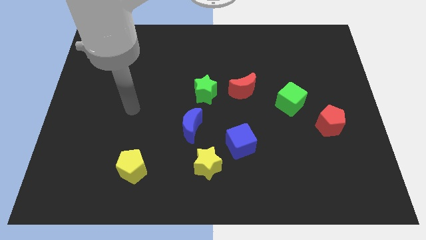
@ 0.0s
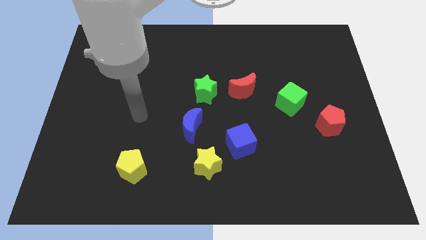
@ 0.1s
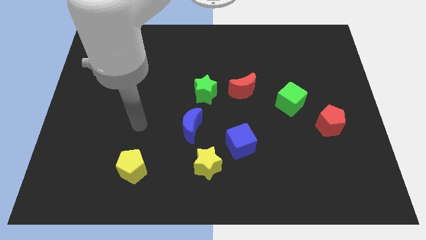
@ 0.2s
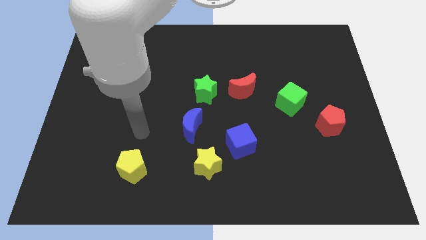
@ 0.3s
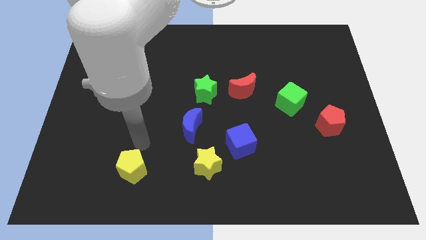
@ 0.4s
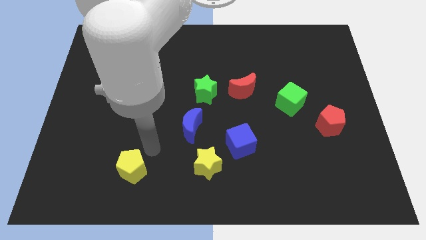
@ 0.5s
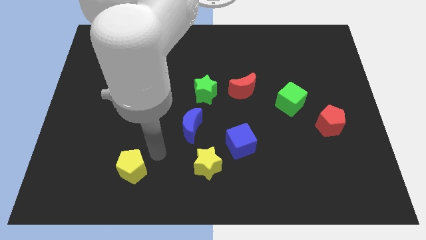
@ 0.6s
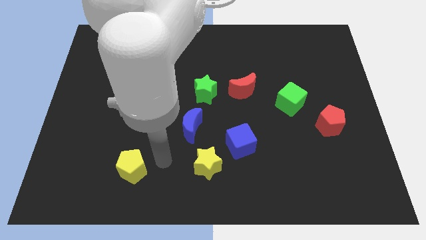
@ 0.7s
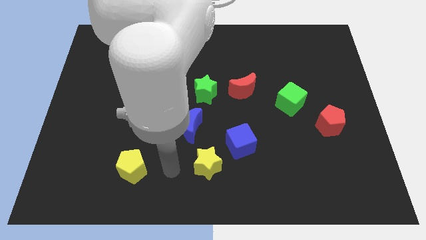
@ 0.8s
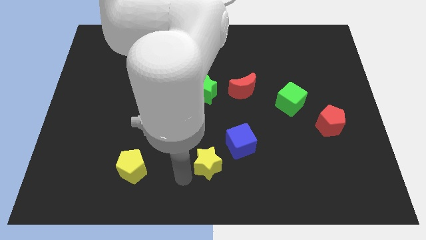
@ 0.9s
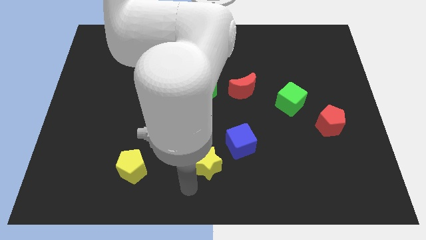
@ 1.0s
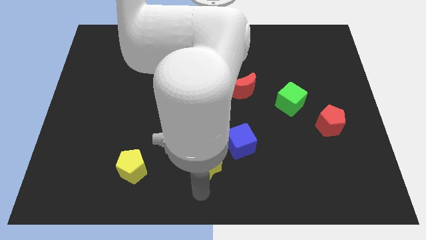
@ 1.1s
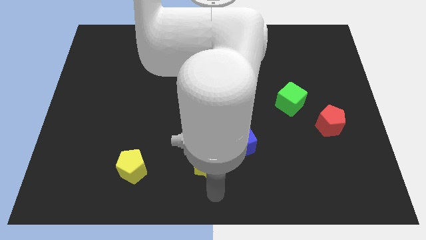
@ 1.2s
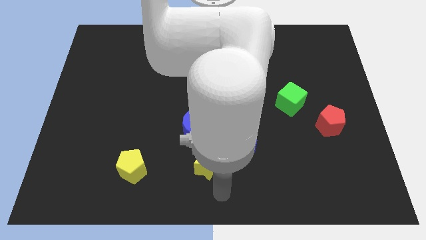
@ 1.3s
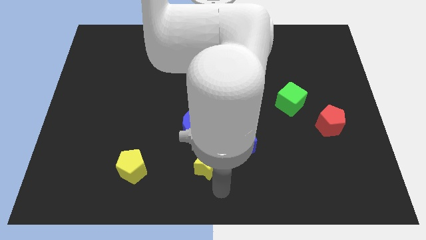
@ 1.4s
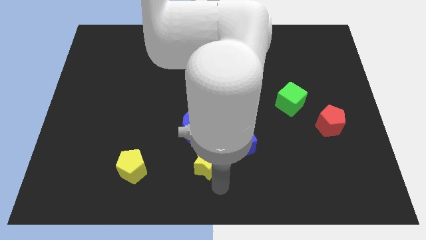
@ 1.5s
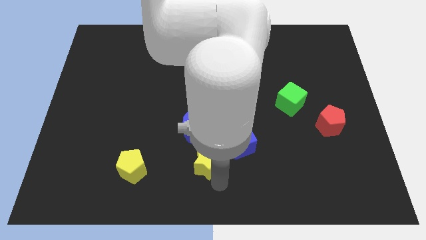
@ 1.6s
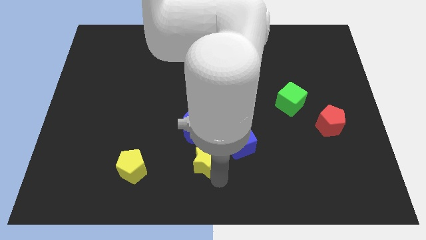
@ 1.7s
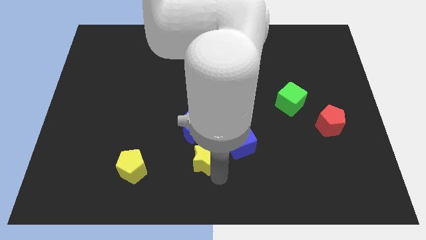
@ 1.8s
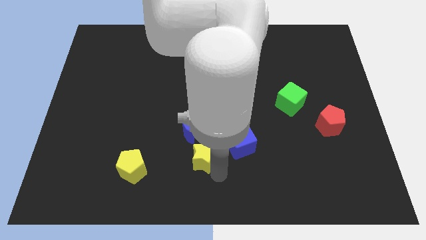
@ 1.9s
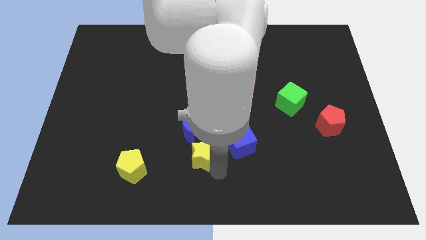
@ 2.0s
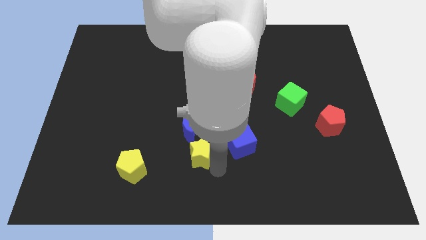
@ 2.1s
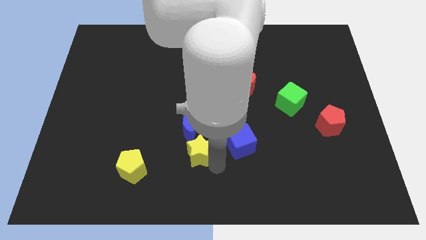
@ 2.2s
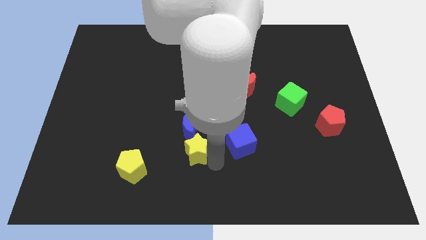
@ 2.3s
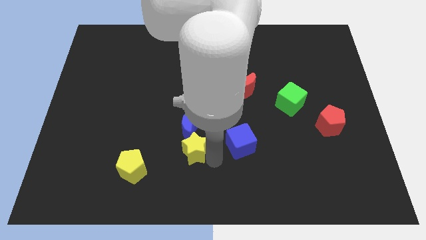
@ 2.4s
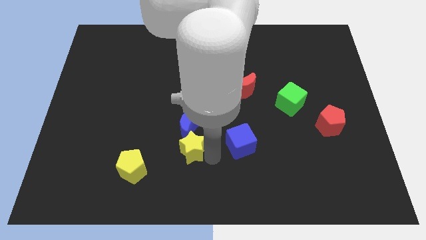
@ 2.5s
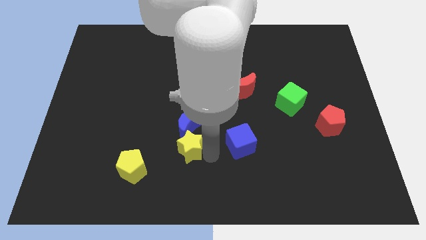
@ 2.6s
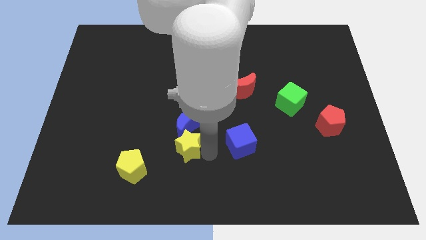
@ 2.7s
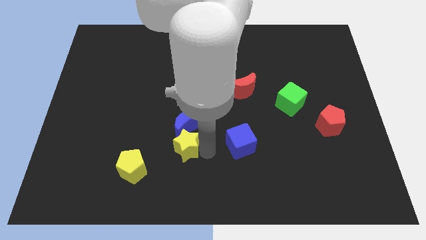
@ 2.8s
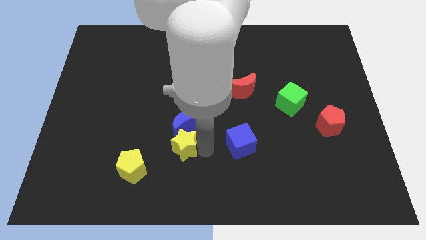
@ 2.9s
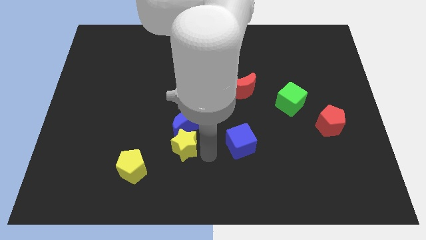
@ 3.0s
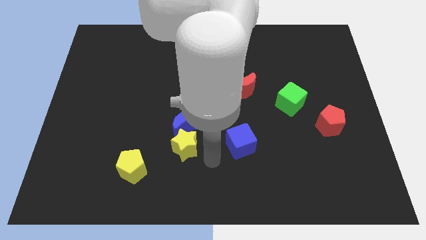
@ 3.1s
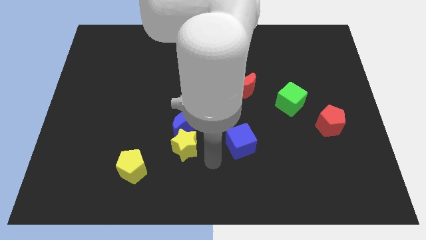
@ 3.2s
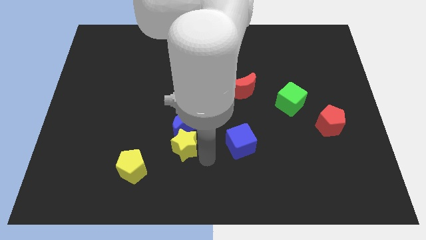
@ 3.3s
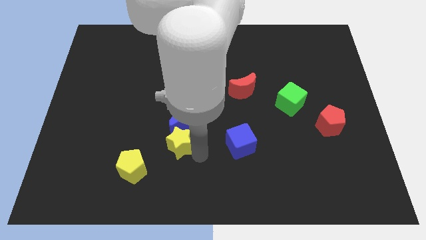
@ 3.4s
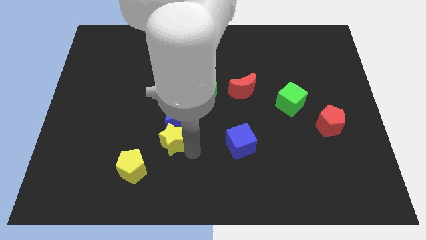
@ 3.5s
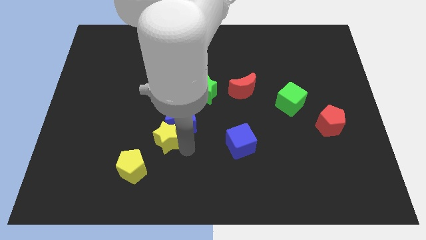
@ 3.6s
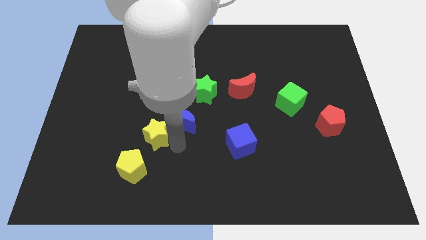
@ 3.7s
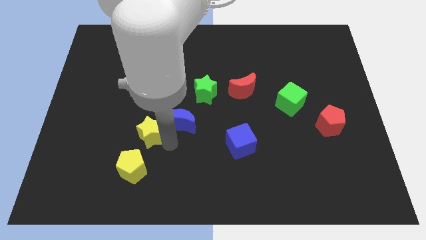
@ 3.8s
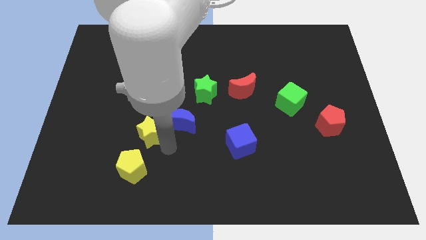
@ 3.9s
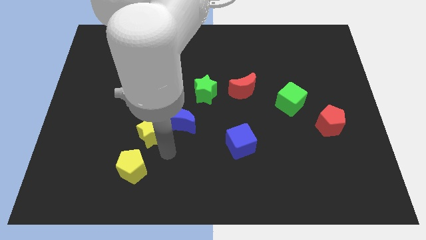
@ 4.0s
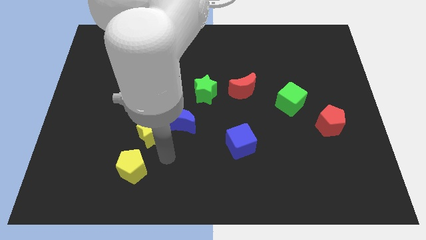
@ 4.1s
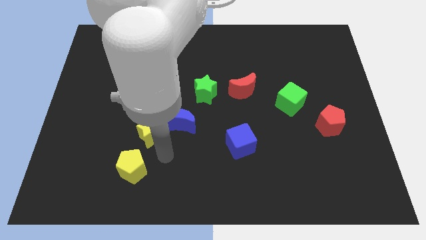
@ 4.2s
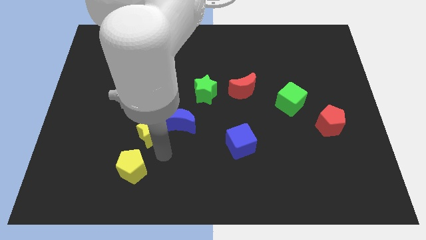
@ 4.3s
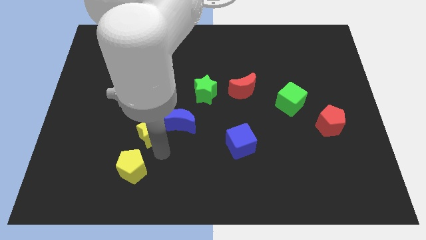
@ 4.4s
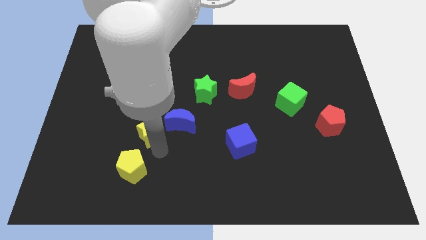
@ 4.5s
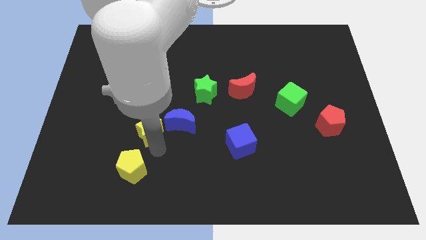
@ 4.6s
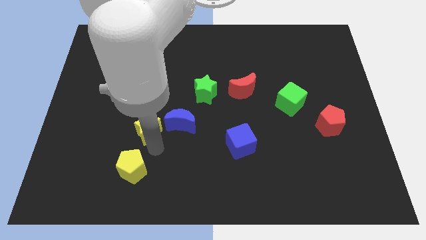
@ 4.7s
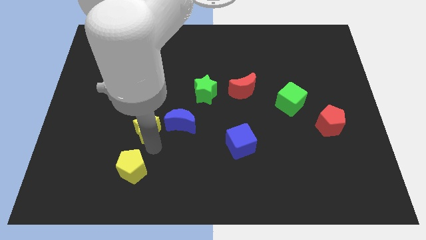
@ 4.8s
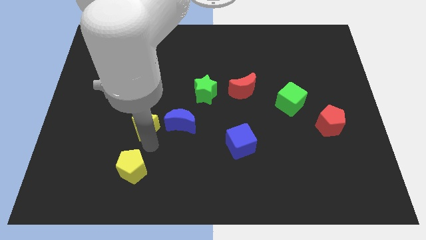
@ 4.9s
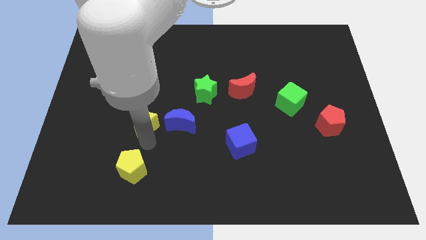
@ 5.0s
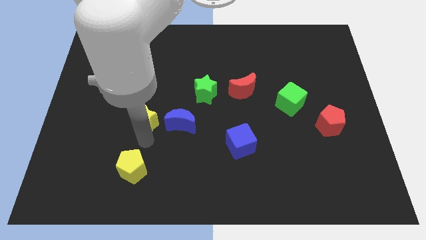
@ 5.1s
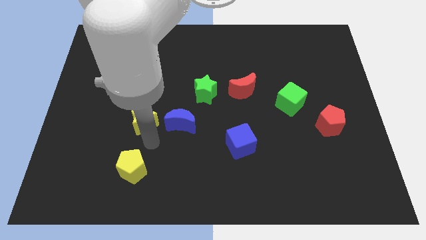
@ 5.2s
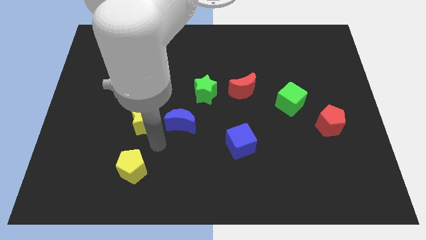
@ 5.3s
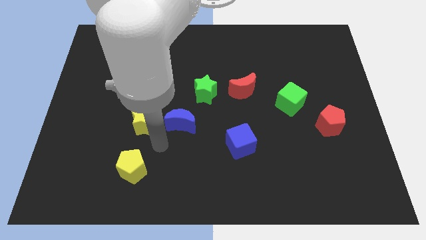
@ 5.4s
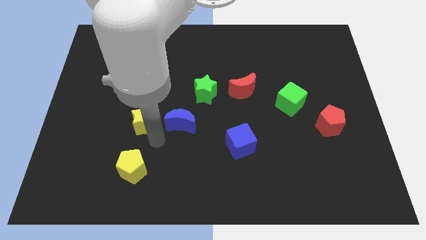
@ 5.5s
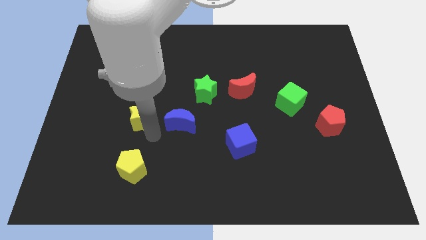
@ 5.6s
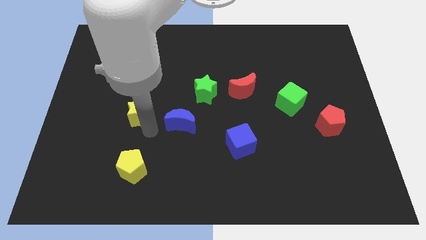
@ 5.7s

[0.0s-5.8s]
move the yellow star upwards and left

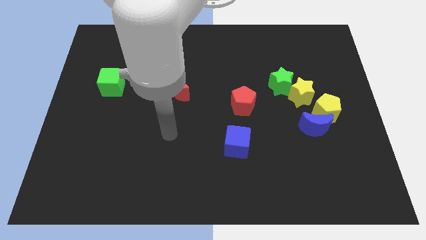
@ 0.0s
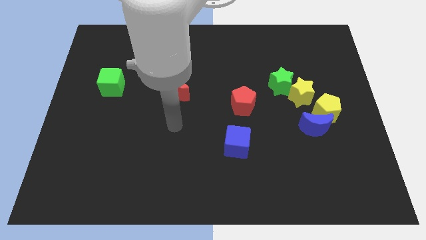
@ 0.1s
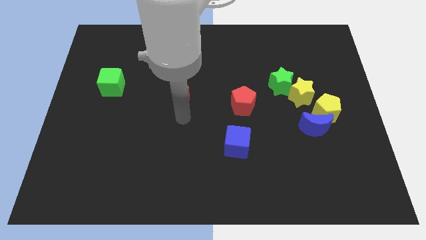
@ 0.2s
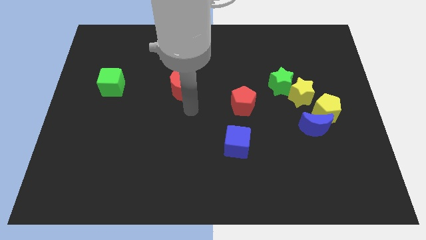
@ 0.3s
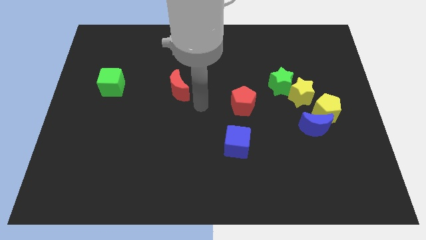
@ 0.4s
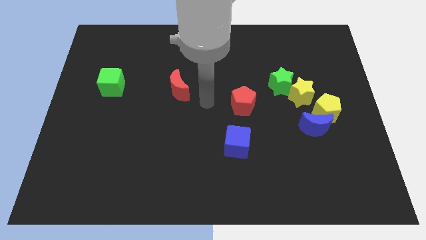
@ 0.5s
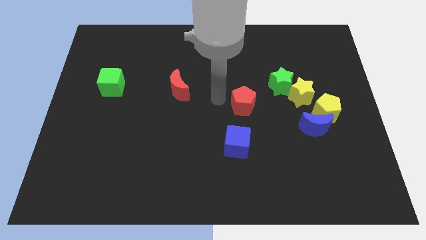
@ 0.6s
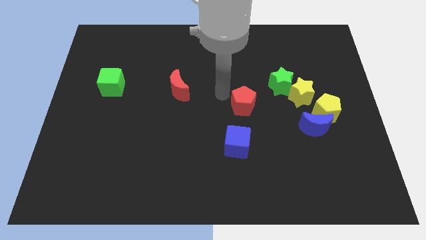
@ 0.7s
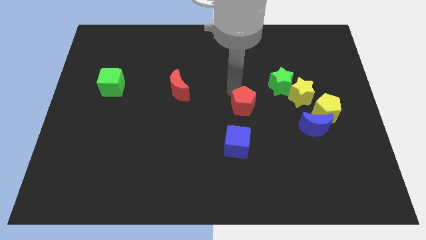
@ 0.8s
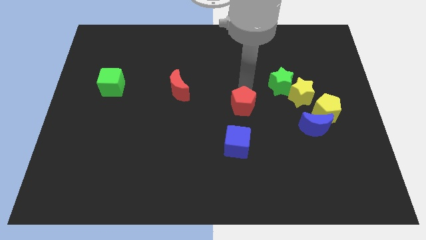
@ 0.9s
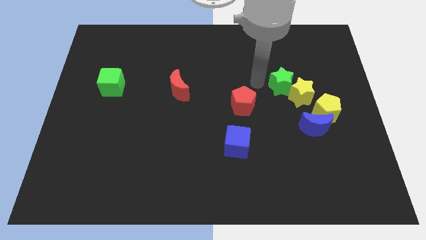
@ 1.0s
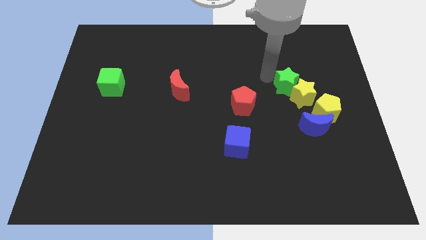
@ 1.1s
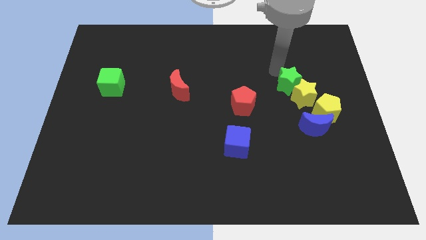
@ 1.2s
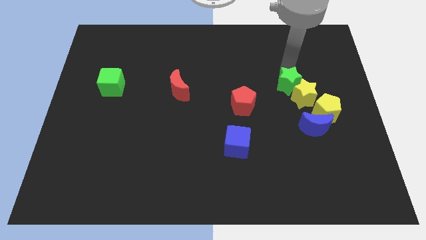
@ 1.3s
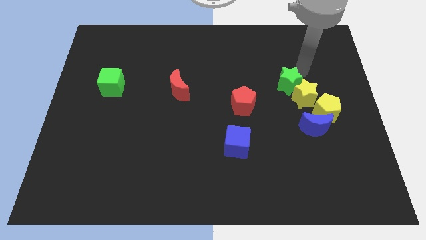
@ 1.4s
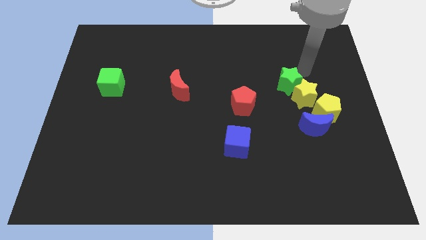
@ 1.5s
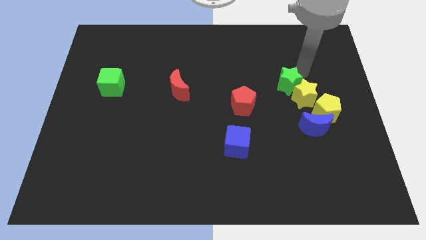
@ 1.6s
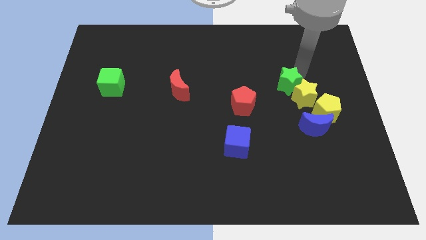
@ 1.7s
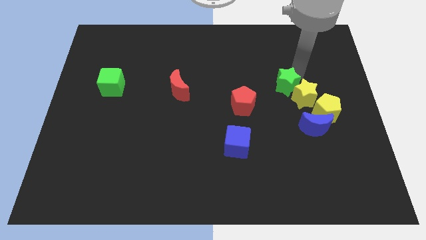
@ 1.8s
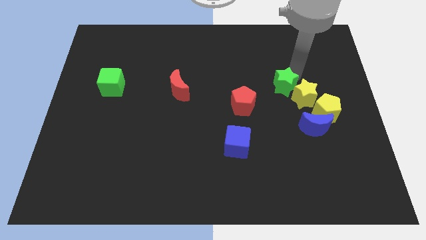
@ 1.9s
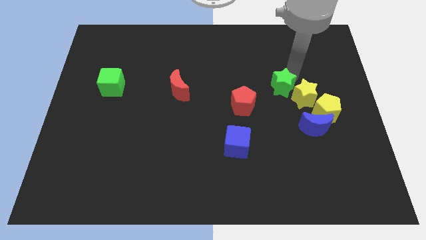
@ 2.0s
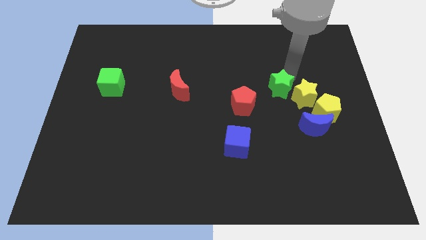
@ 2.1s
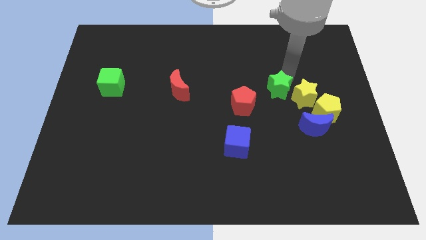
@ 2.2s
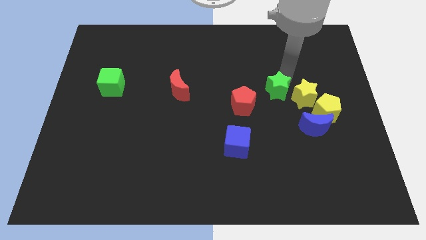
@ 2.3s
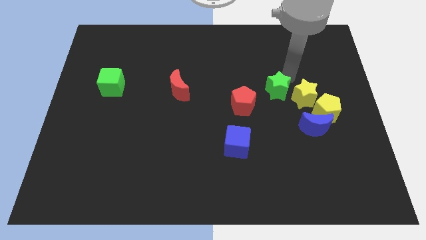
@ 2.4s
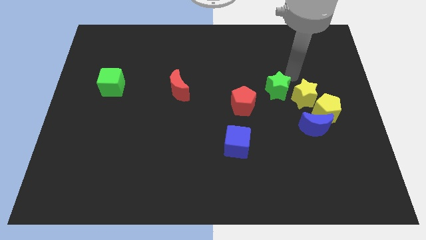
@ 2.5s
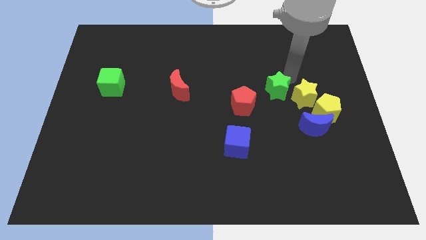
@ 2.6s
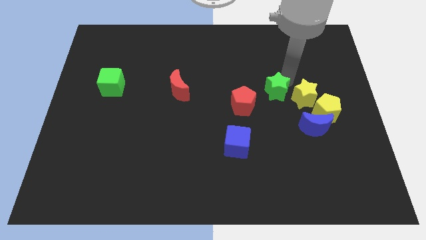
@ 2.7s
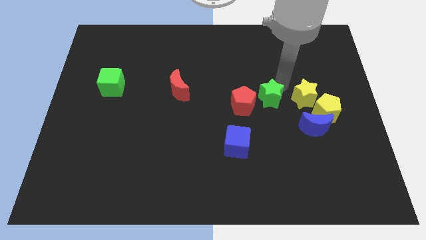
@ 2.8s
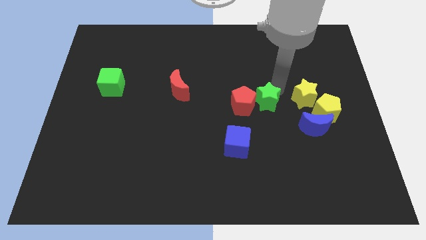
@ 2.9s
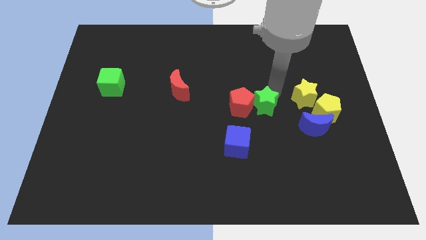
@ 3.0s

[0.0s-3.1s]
move the green star a little downwards and then left
